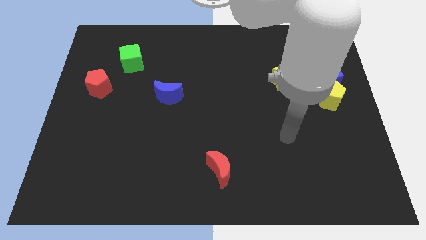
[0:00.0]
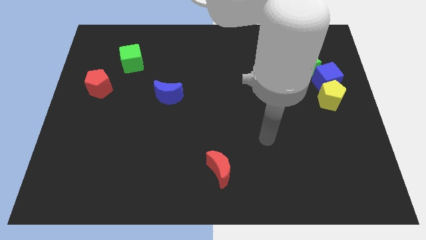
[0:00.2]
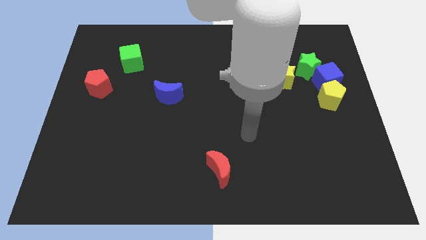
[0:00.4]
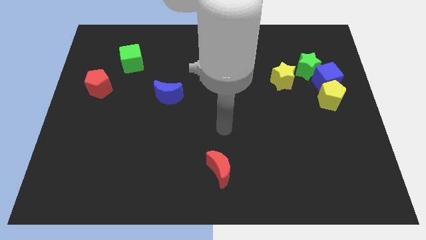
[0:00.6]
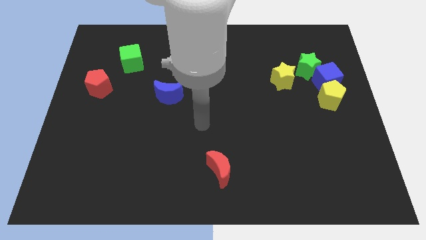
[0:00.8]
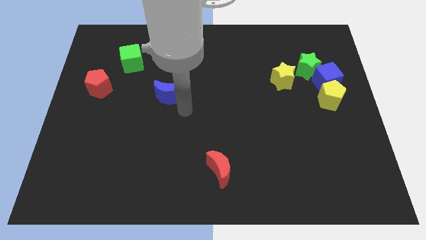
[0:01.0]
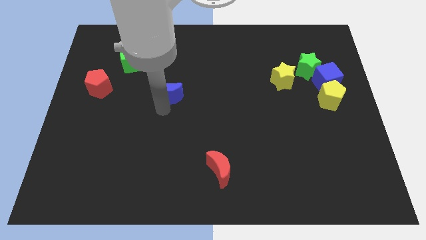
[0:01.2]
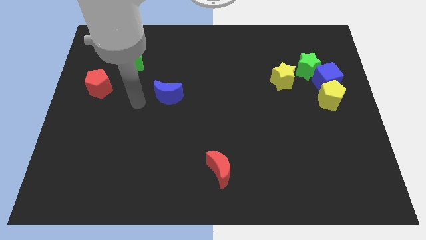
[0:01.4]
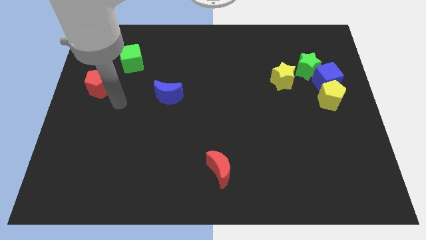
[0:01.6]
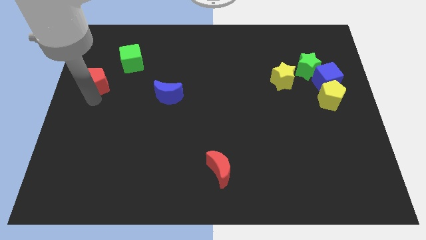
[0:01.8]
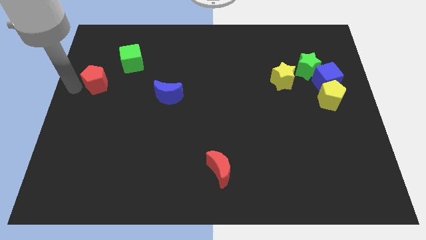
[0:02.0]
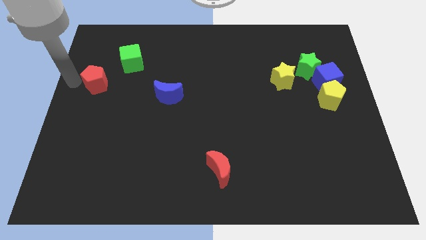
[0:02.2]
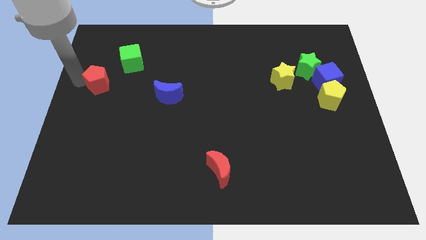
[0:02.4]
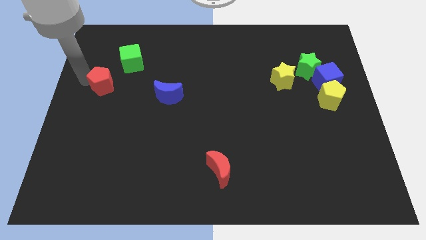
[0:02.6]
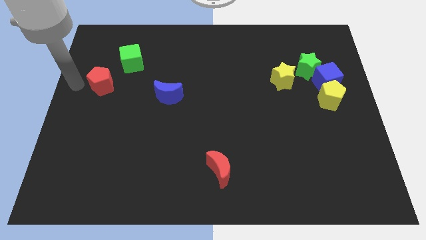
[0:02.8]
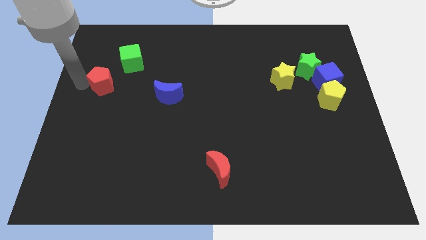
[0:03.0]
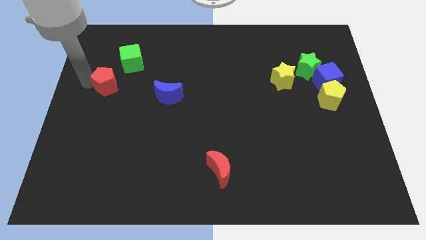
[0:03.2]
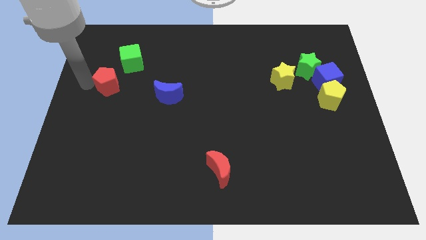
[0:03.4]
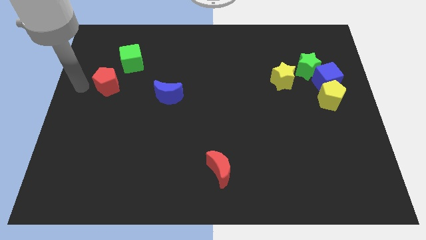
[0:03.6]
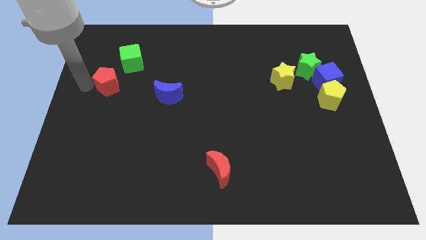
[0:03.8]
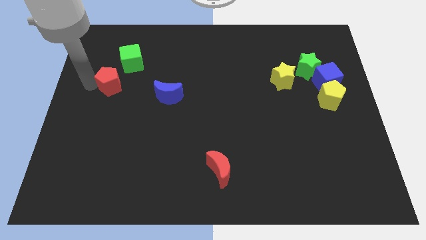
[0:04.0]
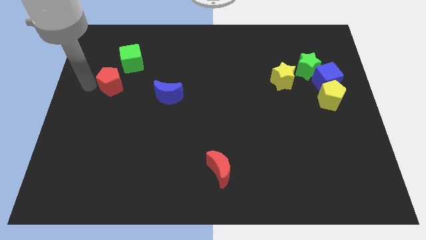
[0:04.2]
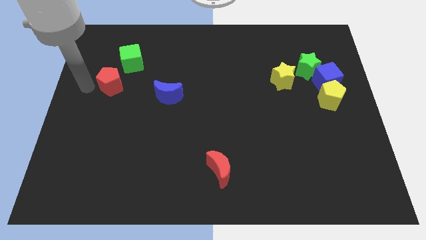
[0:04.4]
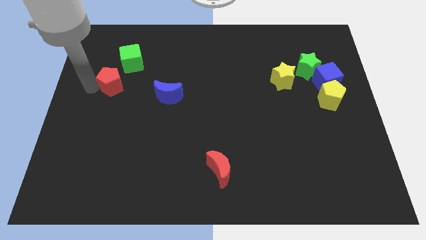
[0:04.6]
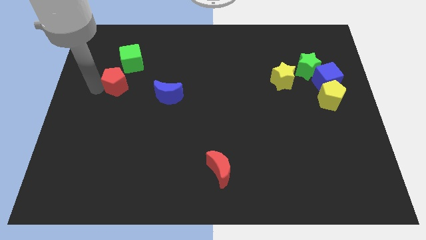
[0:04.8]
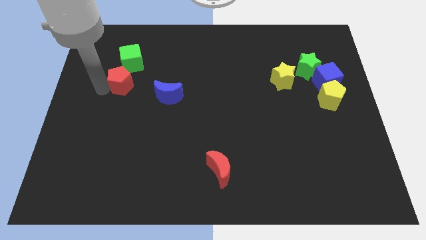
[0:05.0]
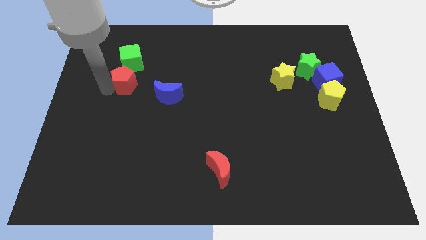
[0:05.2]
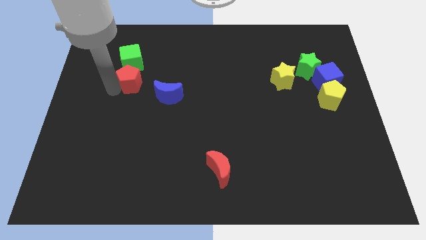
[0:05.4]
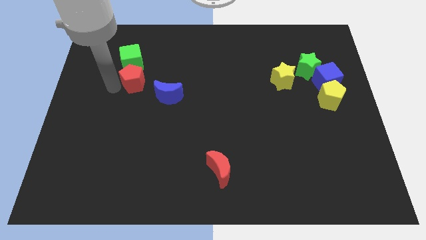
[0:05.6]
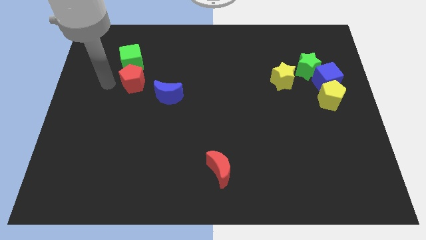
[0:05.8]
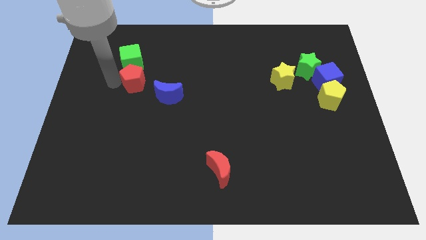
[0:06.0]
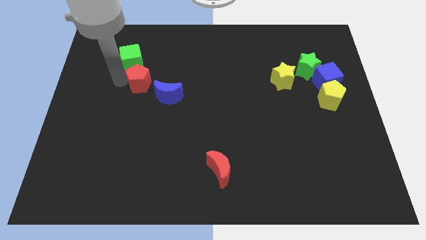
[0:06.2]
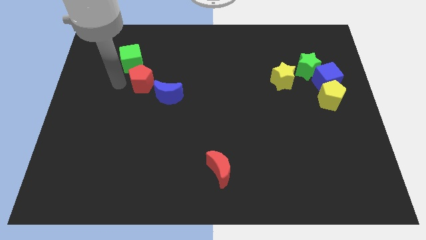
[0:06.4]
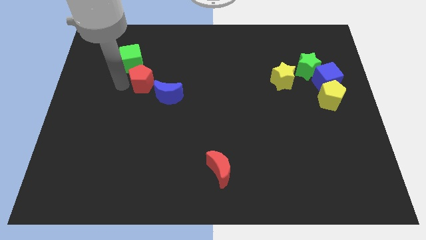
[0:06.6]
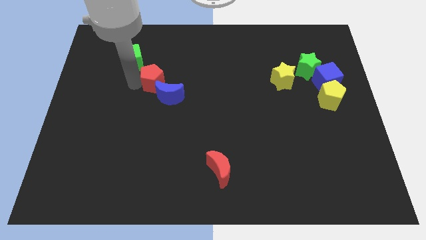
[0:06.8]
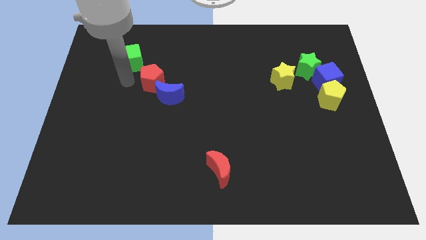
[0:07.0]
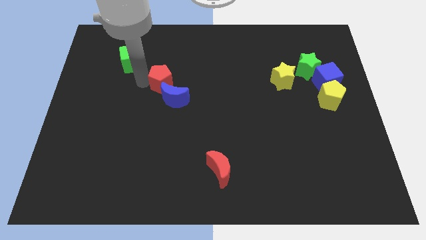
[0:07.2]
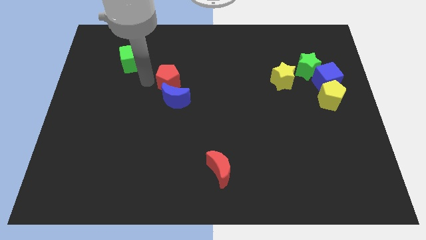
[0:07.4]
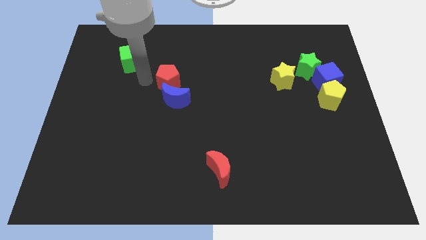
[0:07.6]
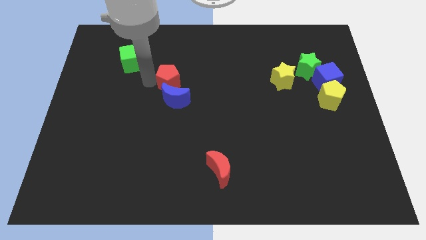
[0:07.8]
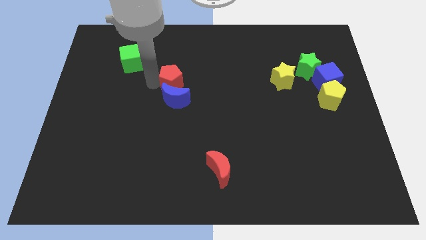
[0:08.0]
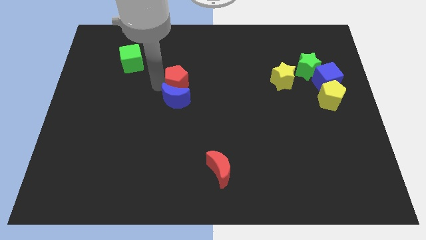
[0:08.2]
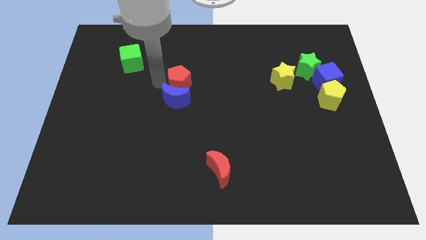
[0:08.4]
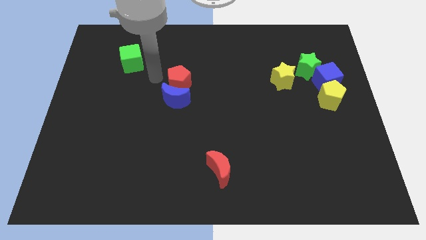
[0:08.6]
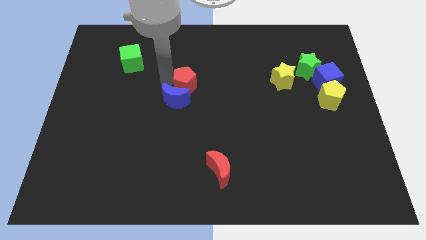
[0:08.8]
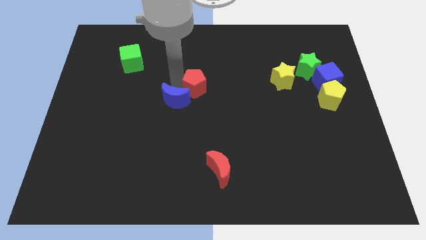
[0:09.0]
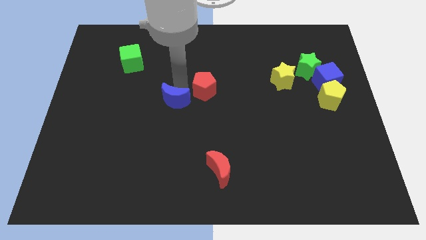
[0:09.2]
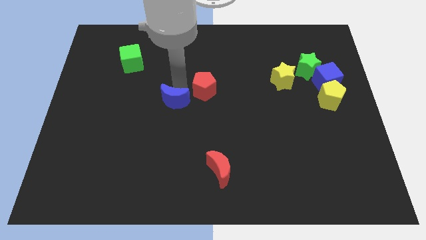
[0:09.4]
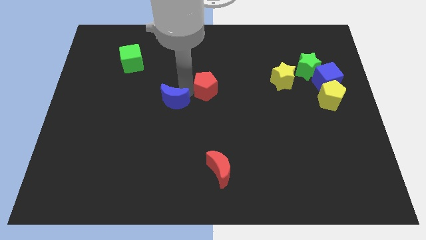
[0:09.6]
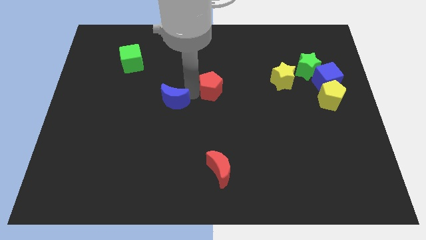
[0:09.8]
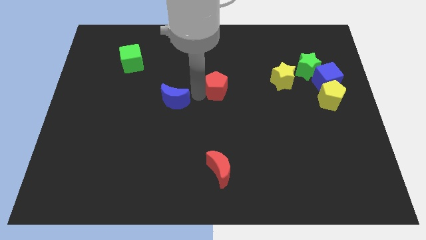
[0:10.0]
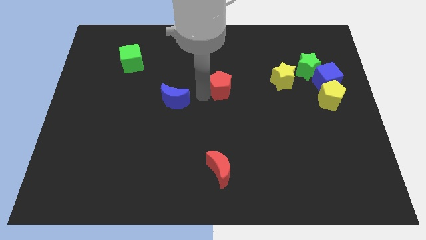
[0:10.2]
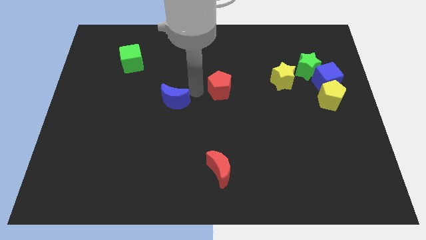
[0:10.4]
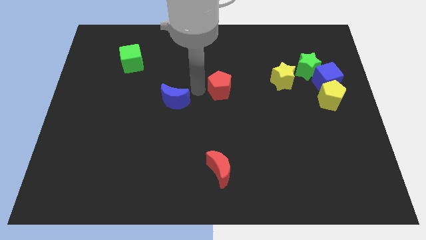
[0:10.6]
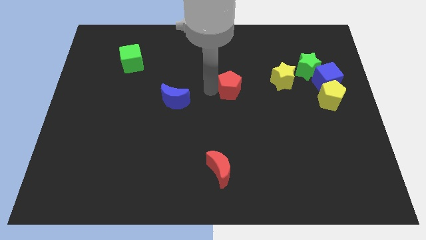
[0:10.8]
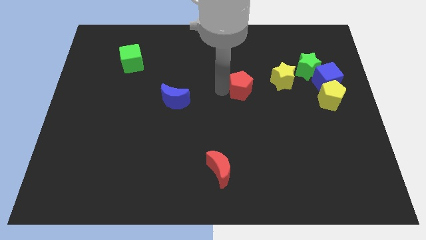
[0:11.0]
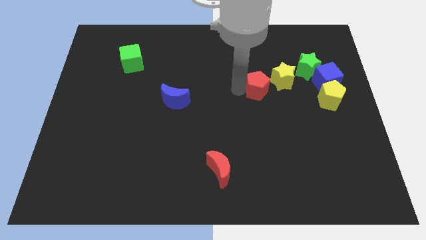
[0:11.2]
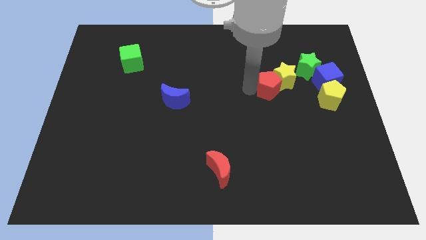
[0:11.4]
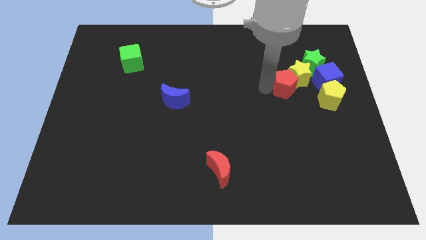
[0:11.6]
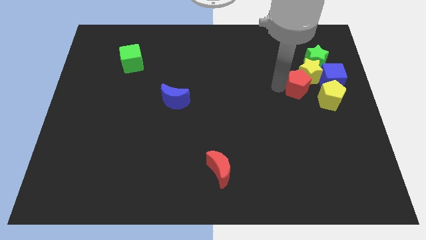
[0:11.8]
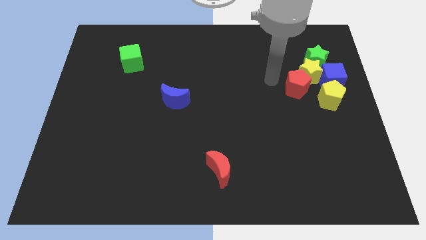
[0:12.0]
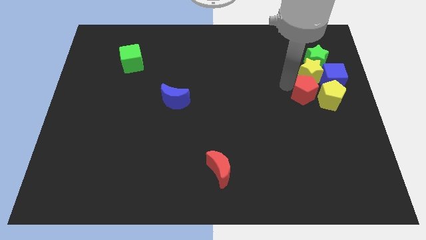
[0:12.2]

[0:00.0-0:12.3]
push the red pentagon towards the yellow pentagon
